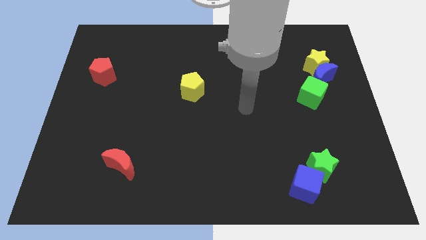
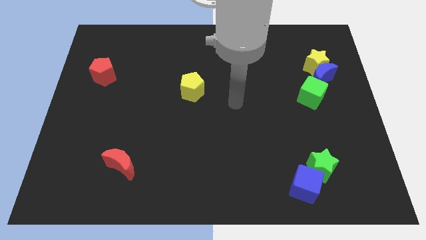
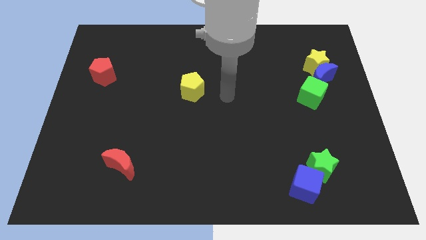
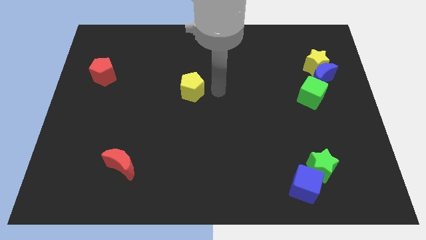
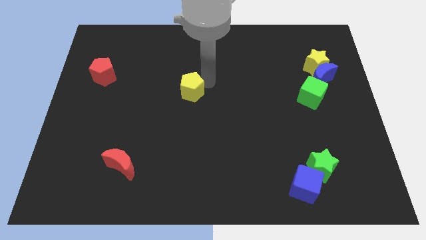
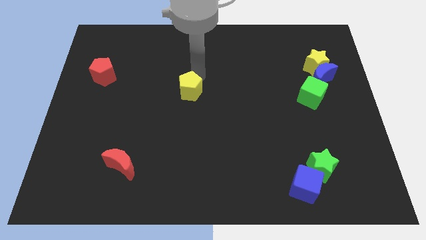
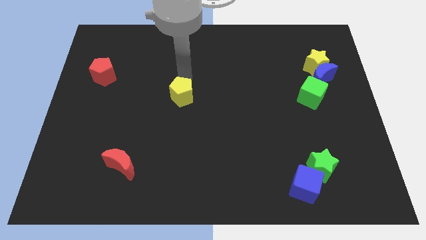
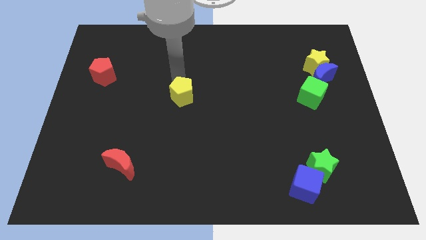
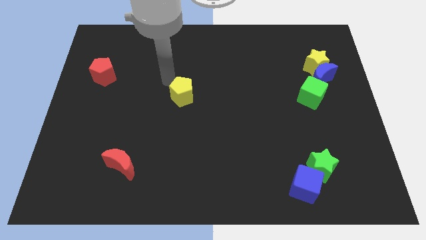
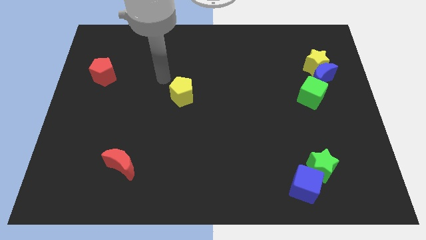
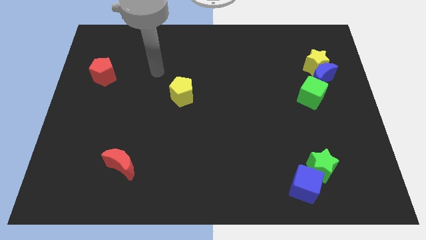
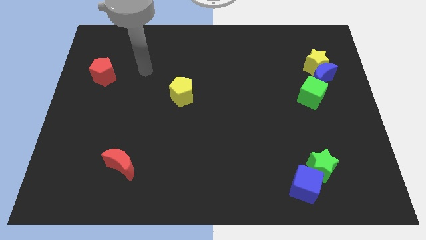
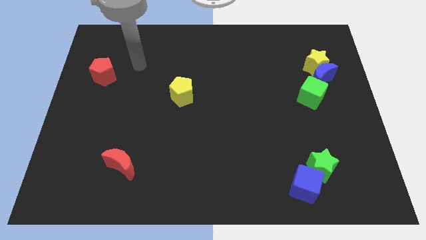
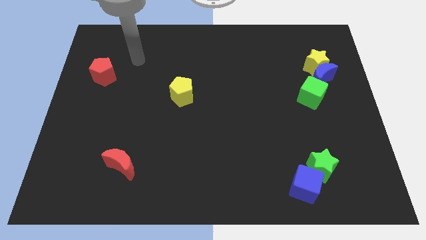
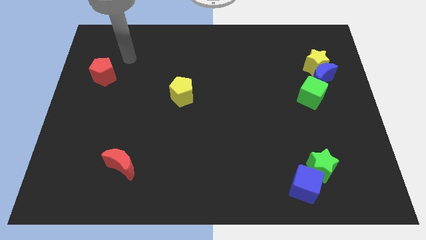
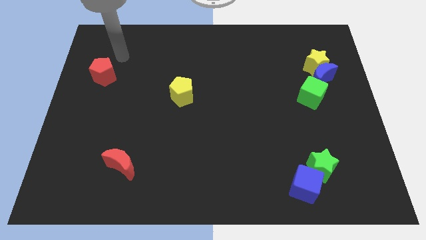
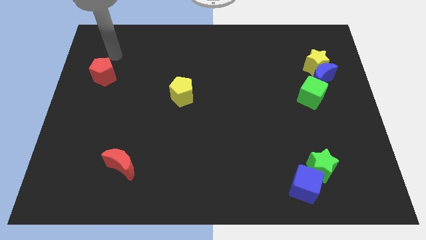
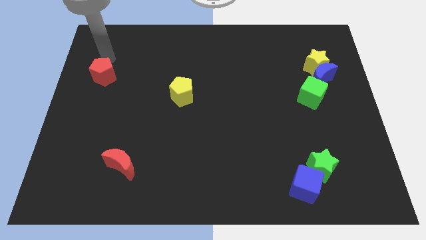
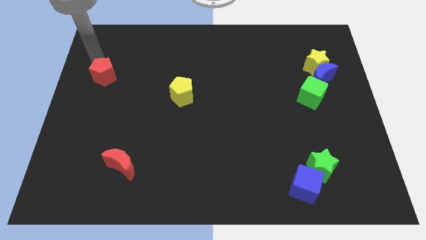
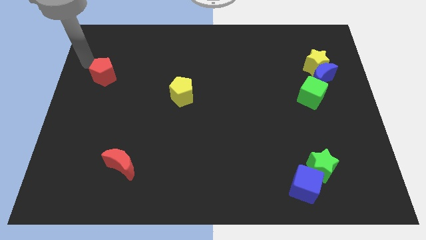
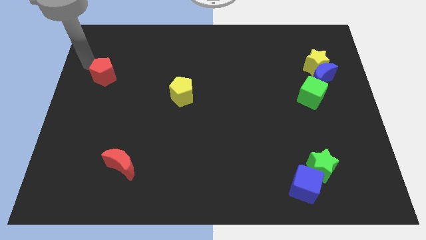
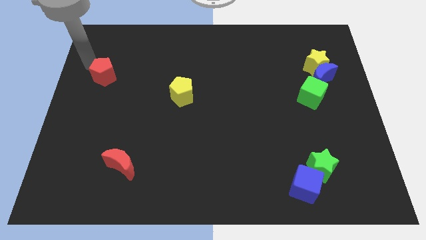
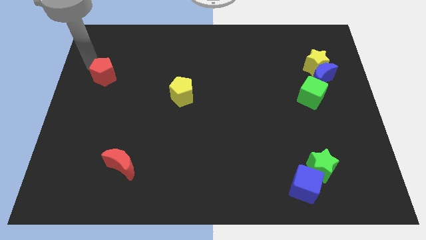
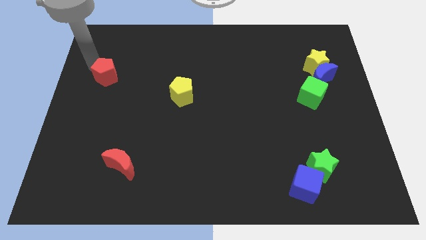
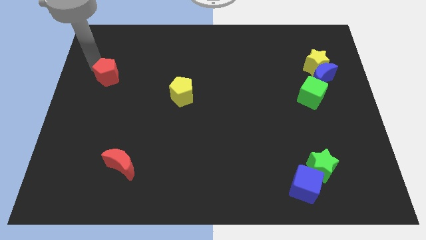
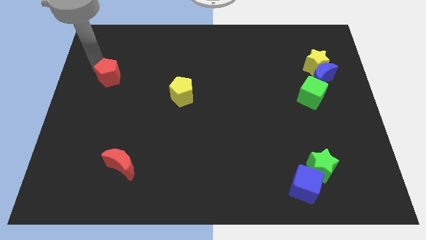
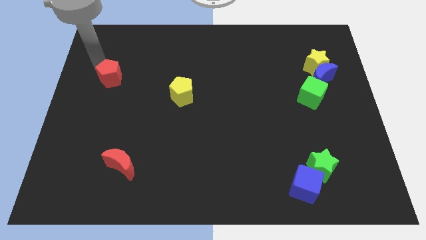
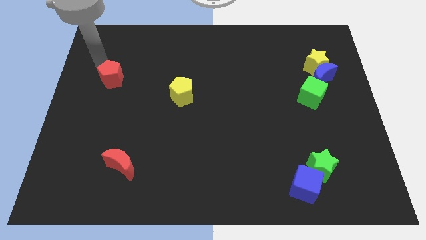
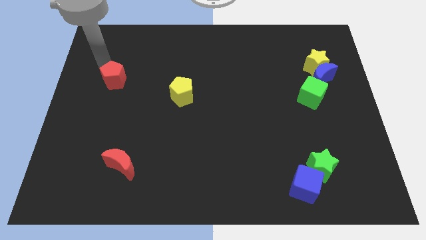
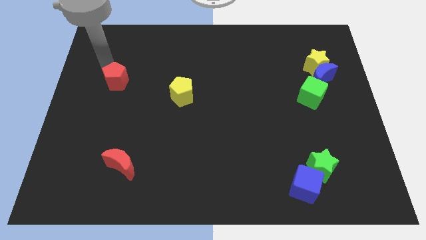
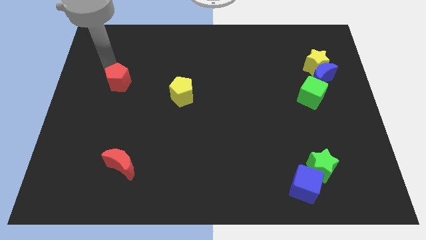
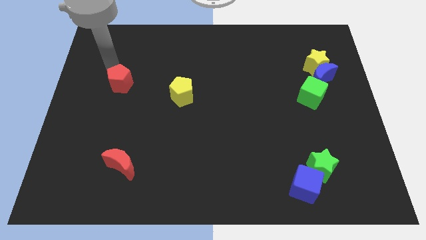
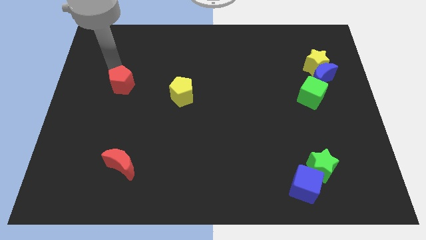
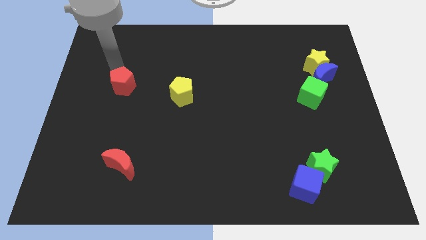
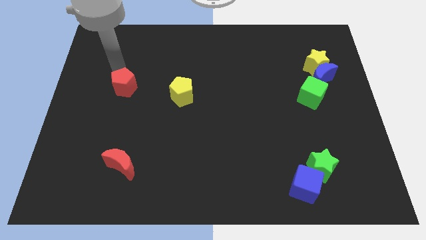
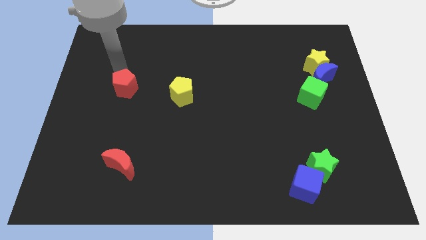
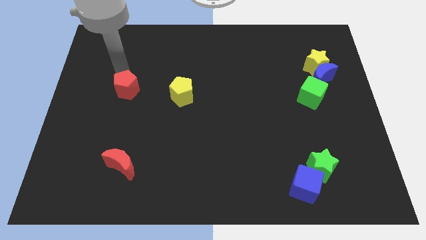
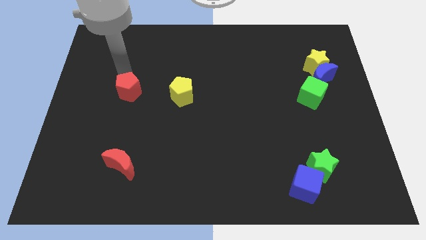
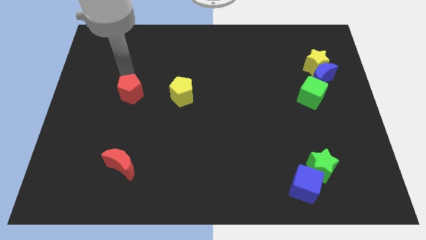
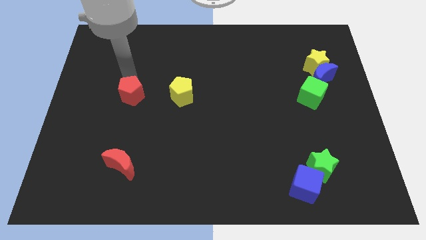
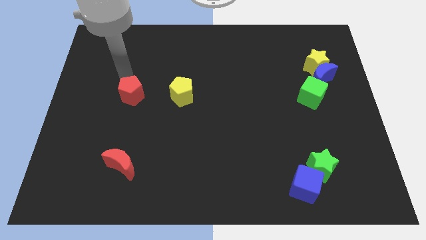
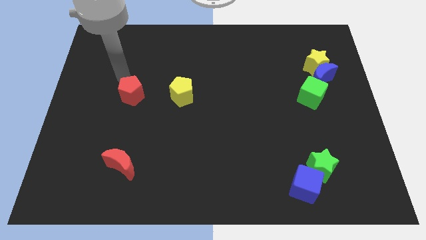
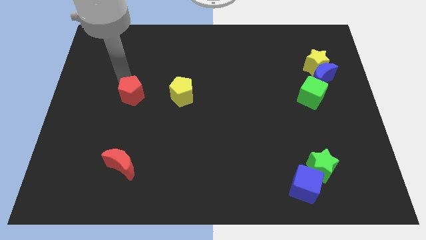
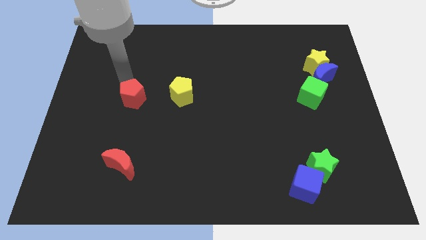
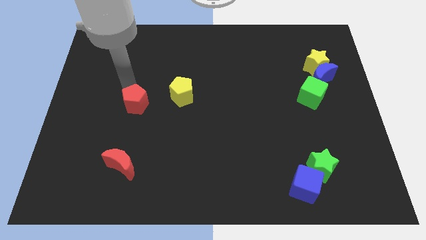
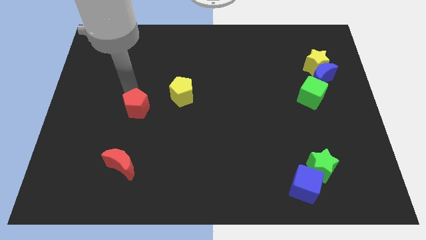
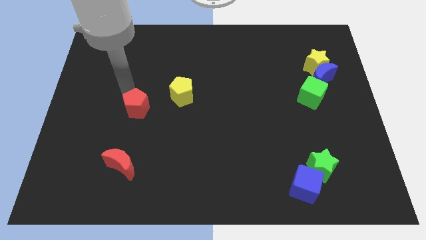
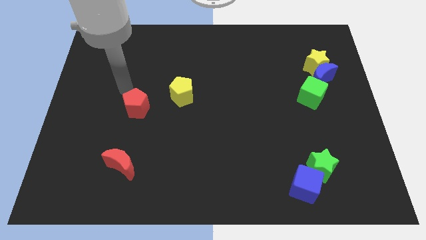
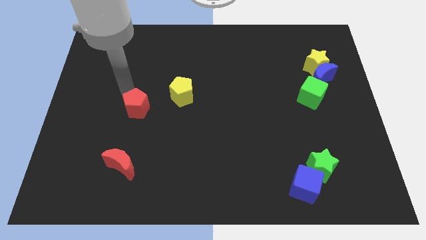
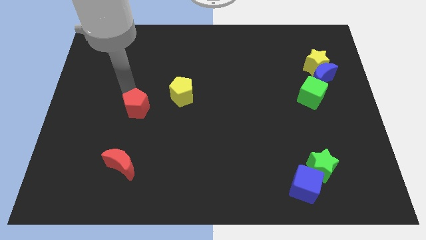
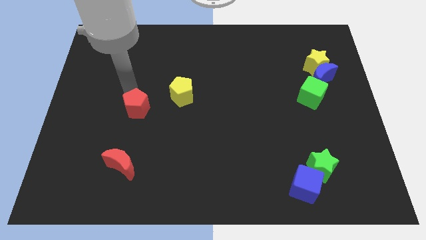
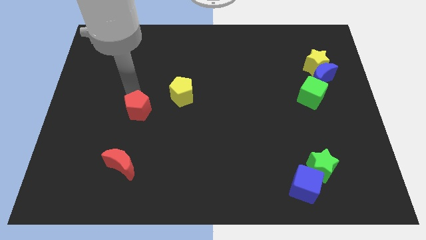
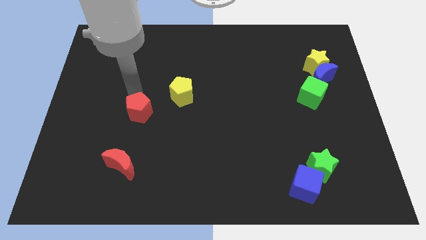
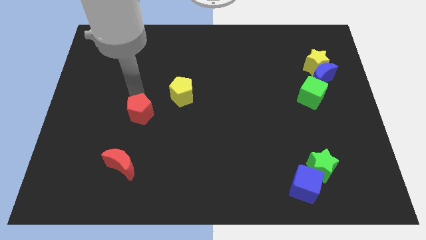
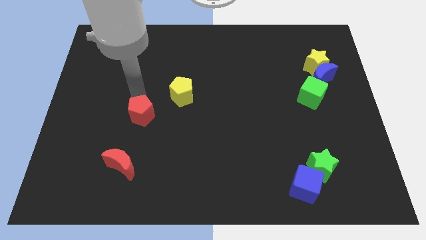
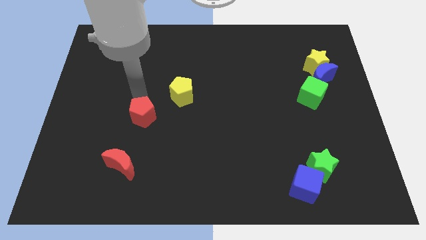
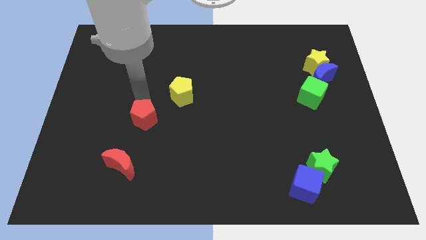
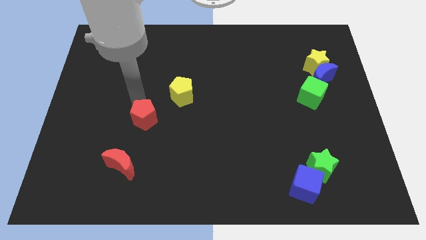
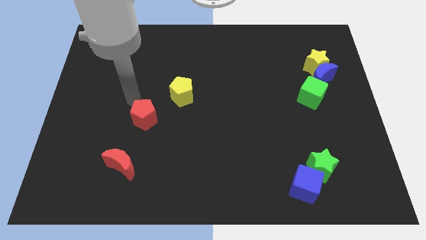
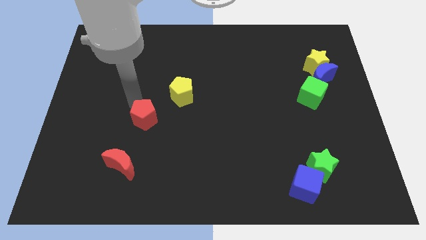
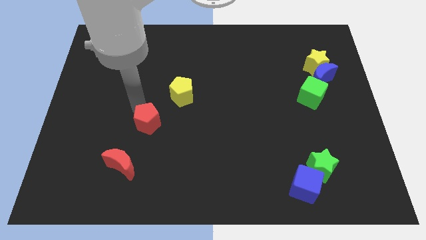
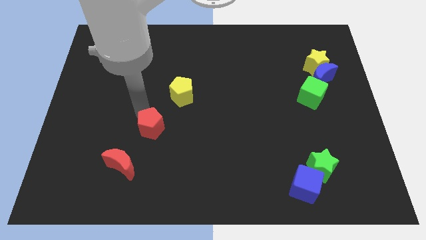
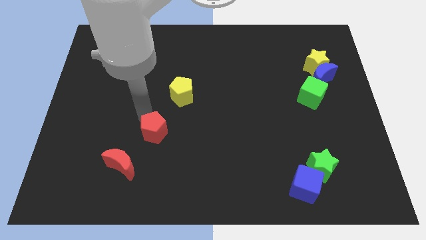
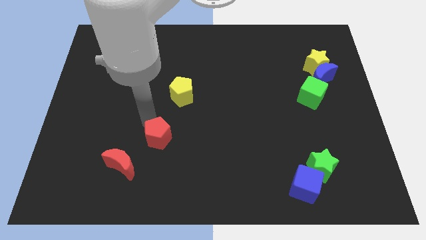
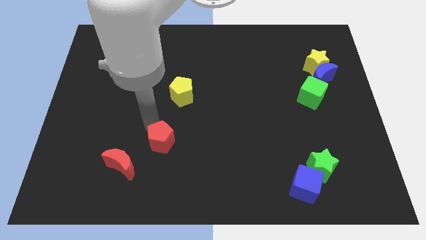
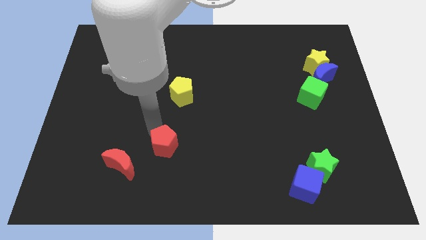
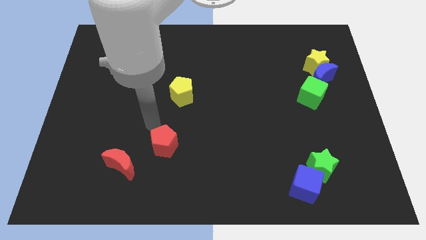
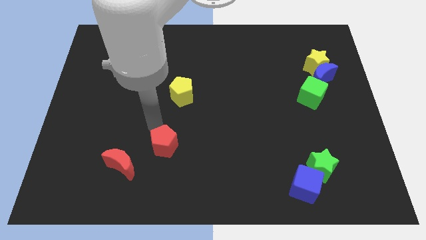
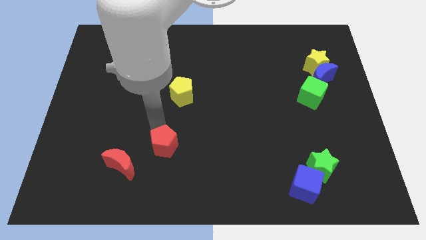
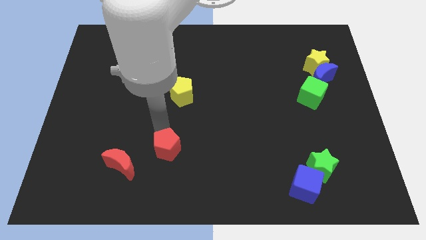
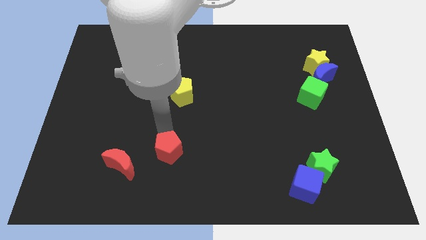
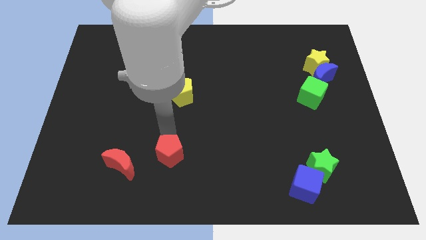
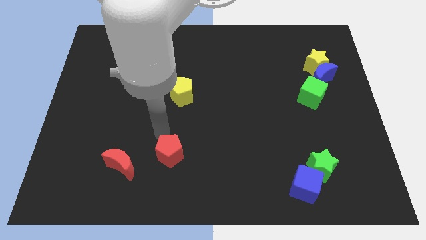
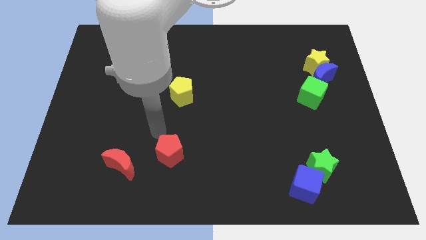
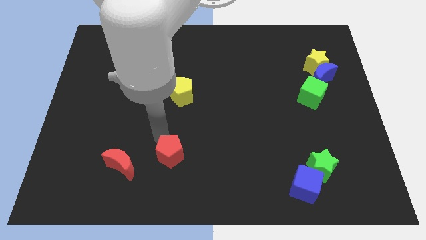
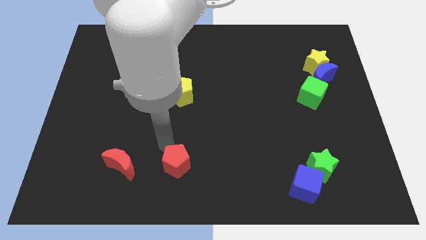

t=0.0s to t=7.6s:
push the red pentagon to the bottom
